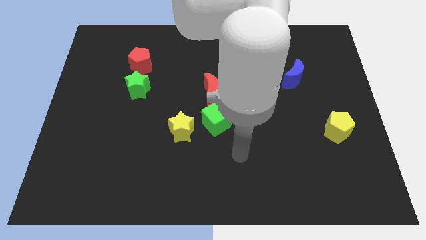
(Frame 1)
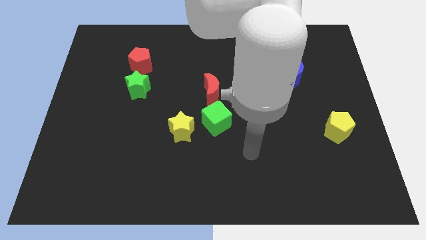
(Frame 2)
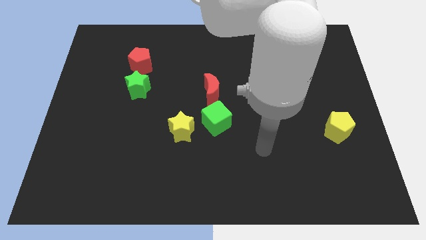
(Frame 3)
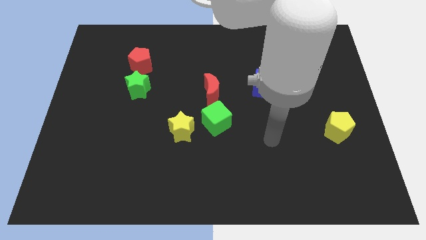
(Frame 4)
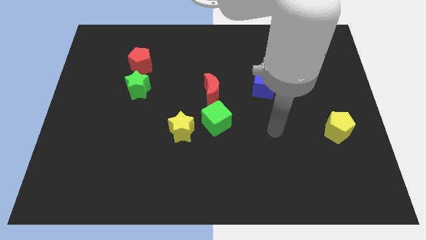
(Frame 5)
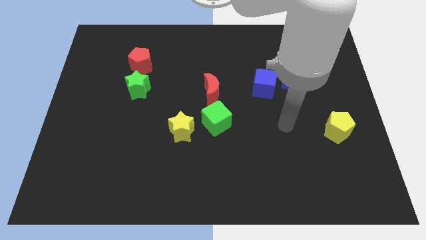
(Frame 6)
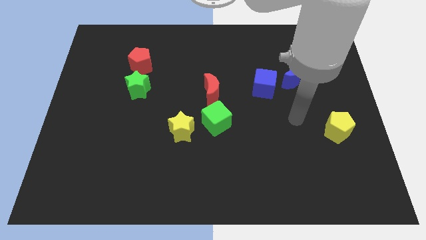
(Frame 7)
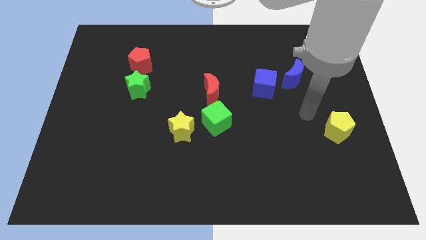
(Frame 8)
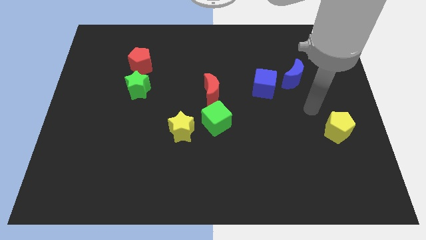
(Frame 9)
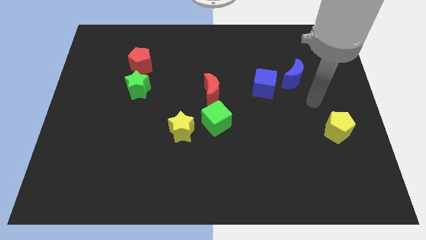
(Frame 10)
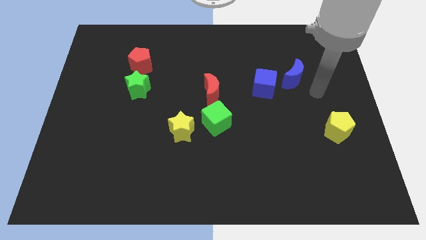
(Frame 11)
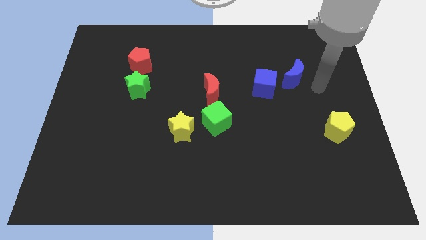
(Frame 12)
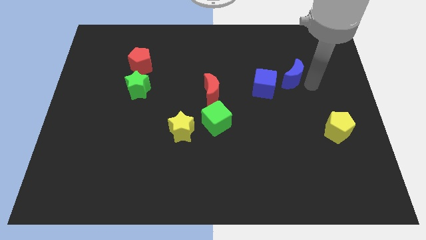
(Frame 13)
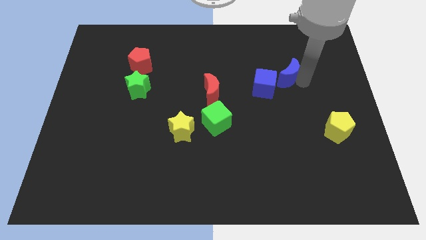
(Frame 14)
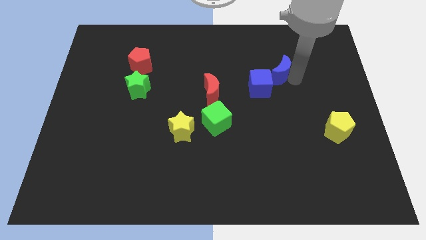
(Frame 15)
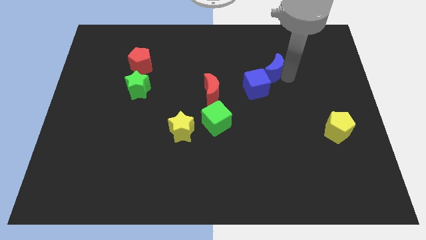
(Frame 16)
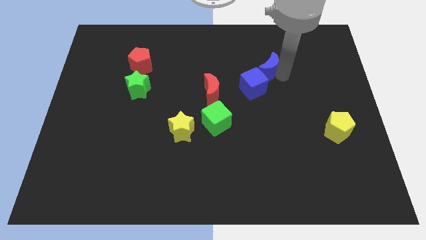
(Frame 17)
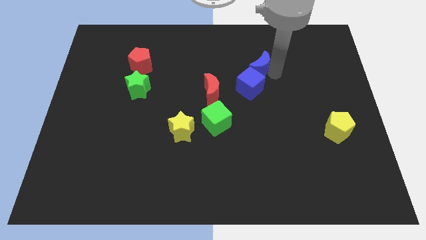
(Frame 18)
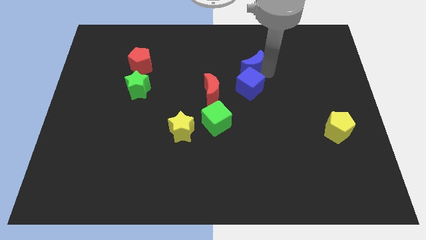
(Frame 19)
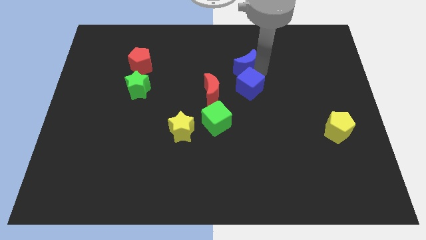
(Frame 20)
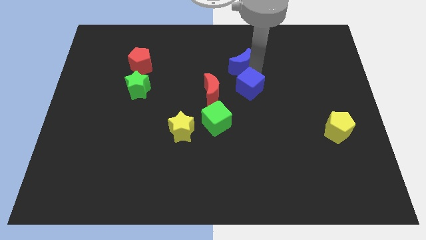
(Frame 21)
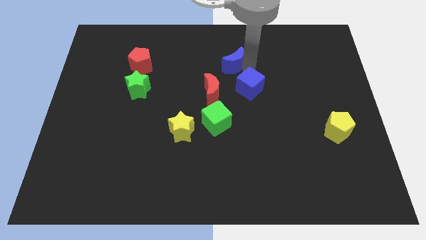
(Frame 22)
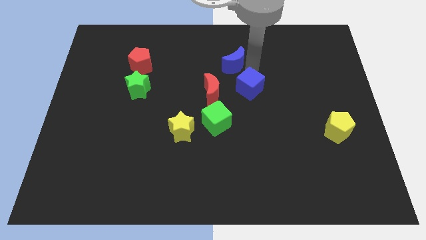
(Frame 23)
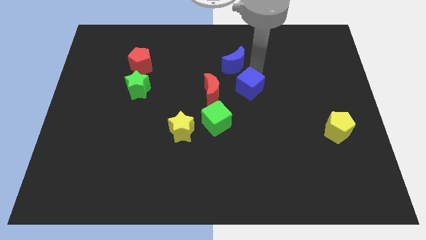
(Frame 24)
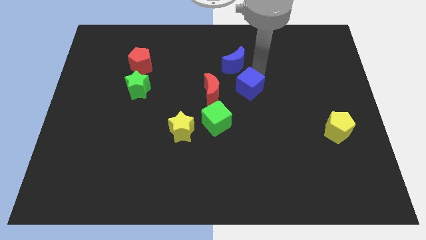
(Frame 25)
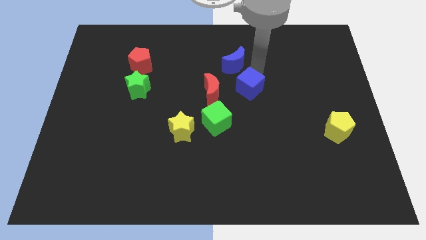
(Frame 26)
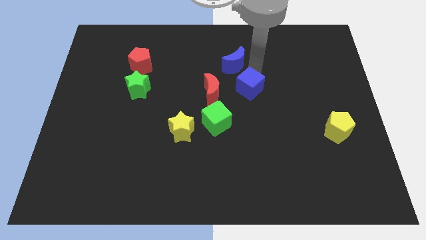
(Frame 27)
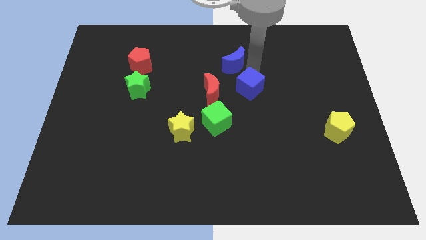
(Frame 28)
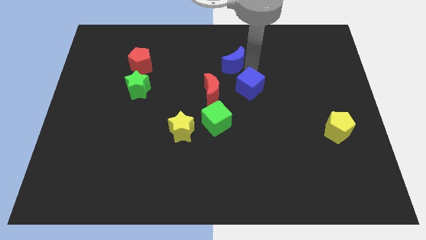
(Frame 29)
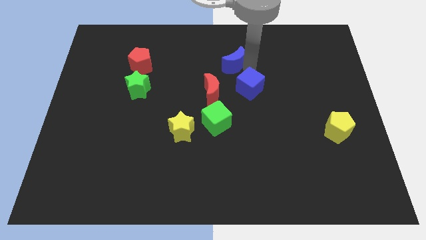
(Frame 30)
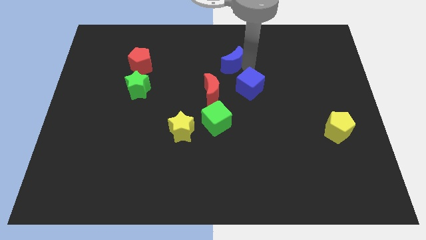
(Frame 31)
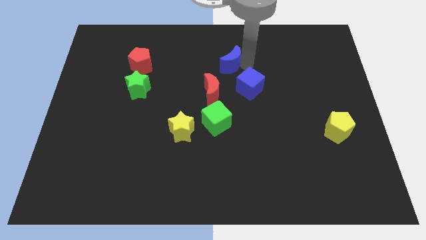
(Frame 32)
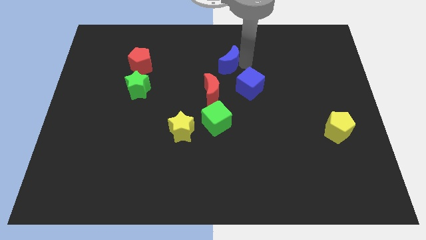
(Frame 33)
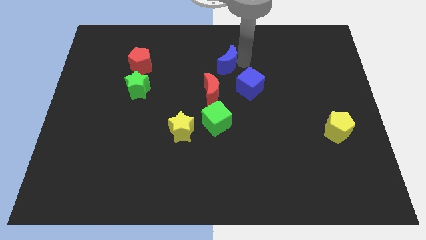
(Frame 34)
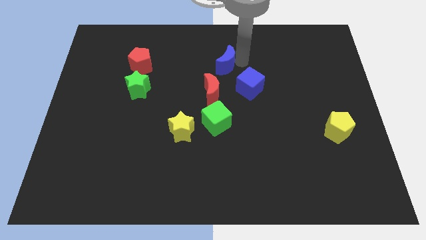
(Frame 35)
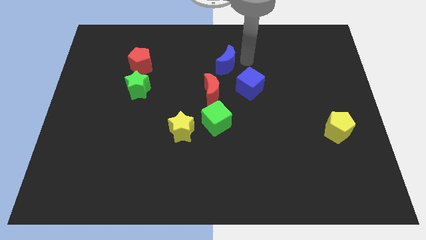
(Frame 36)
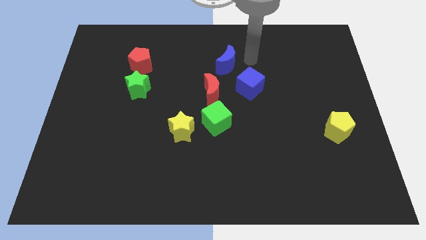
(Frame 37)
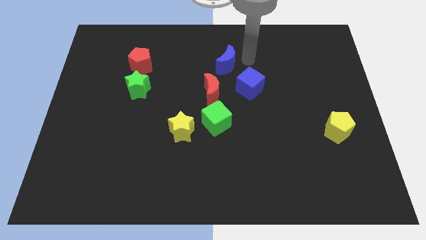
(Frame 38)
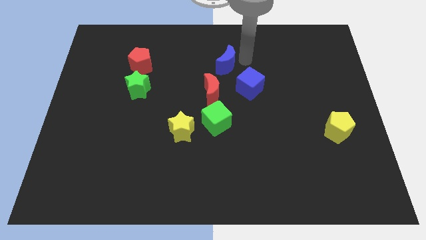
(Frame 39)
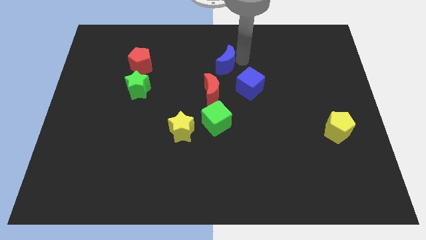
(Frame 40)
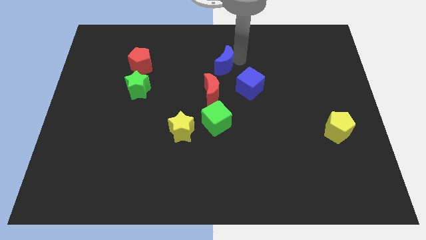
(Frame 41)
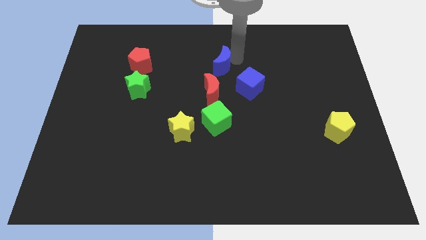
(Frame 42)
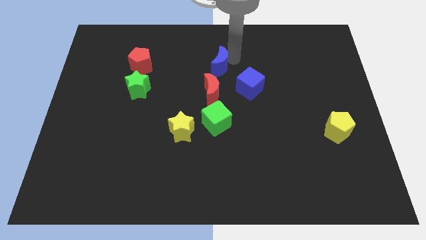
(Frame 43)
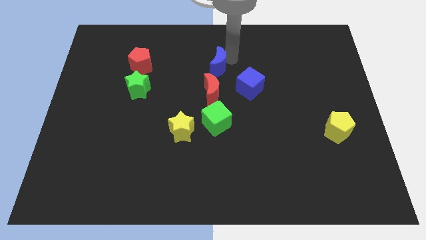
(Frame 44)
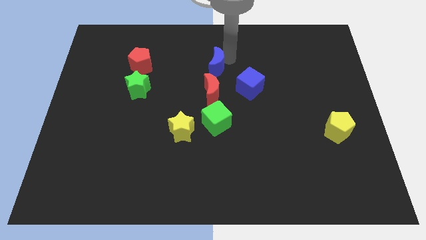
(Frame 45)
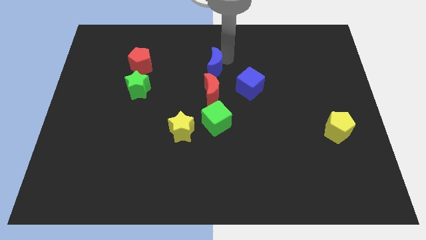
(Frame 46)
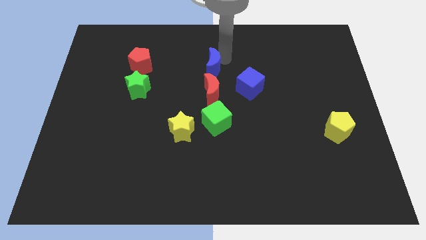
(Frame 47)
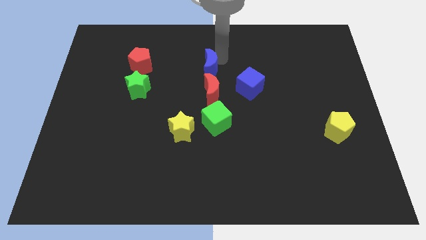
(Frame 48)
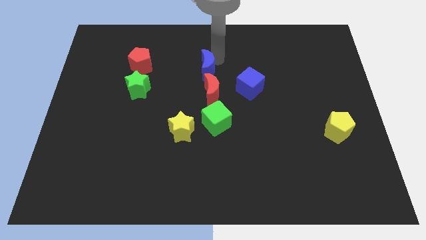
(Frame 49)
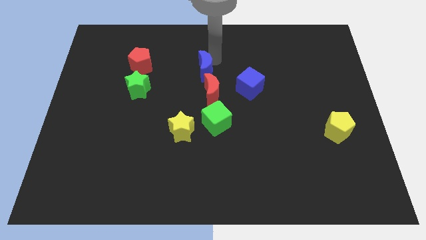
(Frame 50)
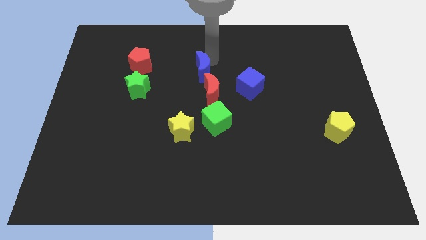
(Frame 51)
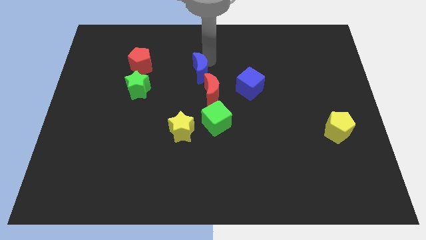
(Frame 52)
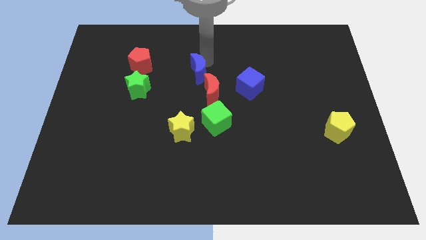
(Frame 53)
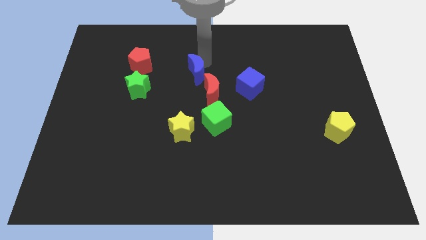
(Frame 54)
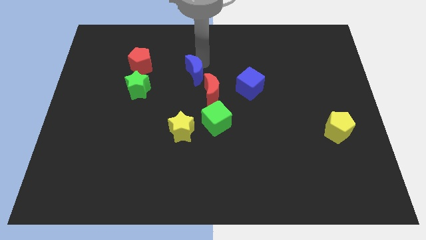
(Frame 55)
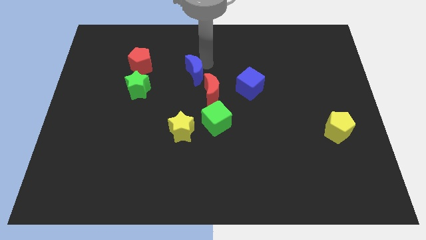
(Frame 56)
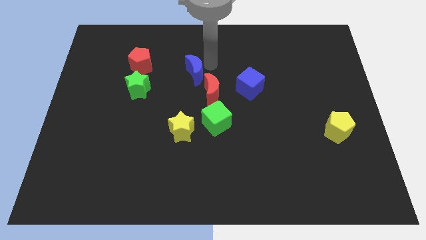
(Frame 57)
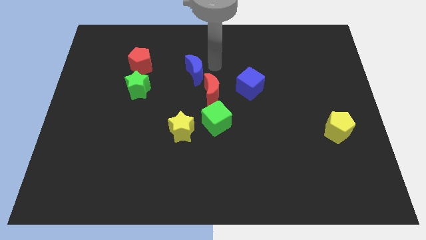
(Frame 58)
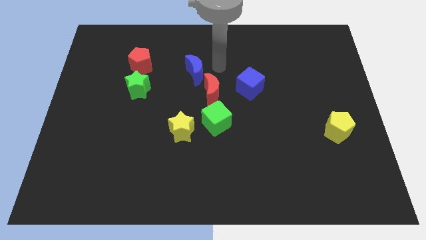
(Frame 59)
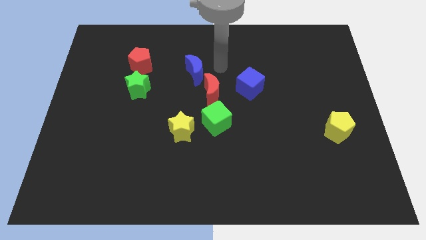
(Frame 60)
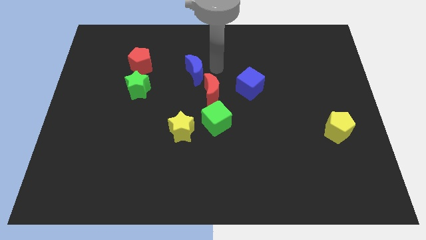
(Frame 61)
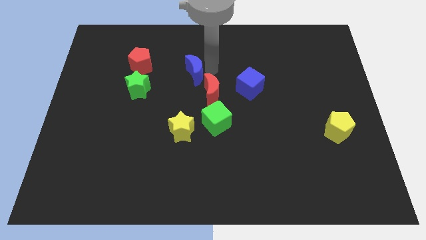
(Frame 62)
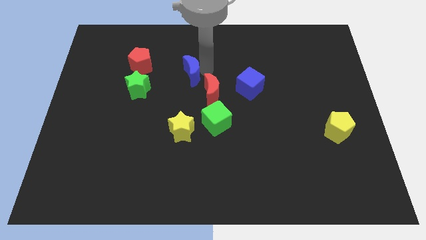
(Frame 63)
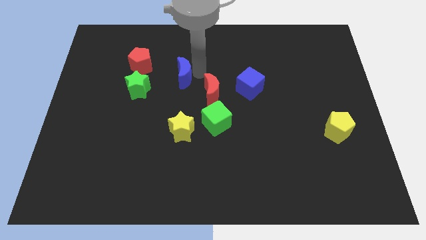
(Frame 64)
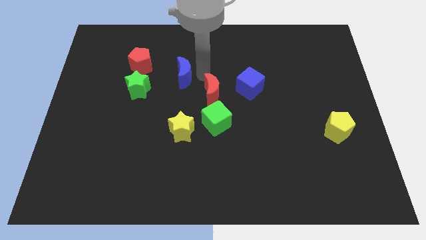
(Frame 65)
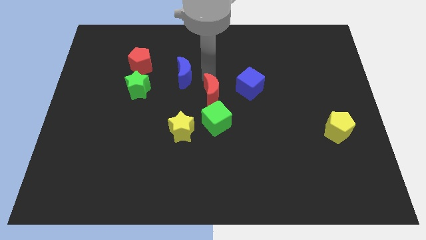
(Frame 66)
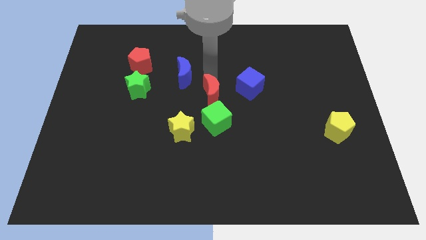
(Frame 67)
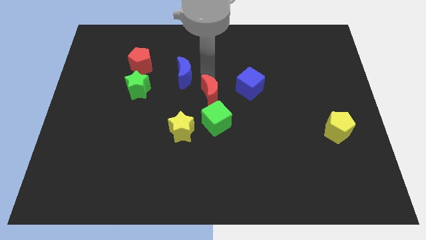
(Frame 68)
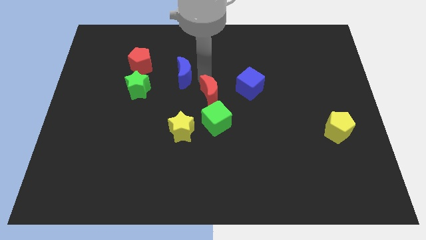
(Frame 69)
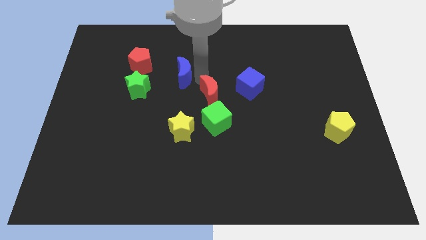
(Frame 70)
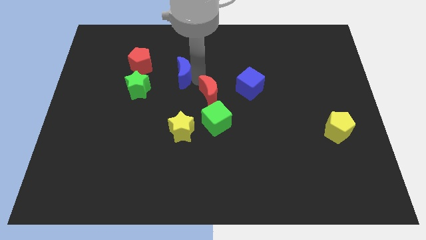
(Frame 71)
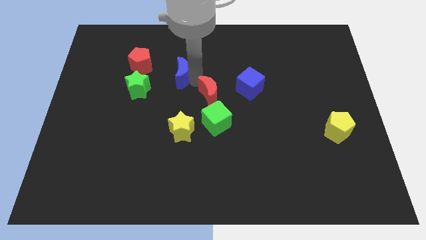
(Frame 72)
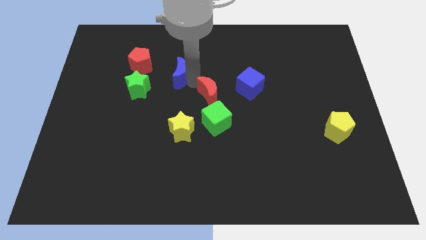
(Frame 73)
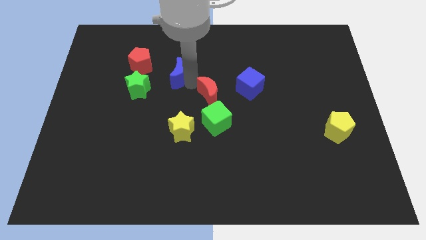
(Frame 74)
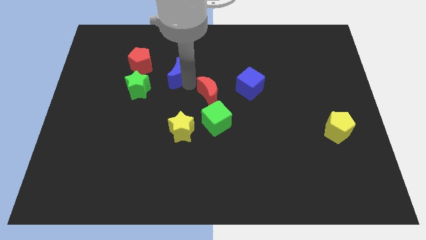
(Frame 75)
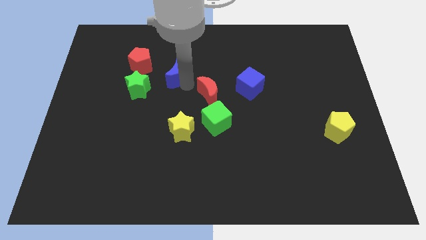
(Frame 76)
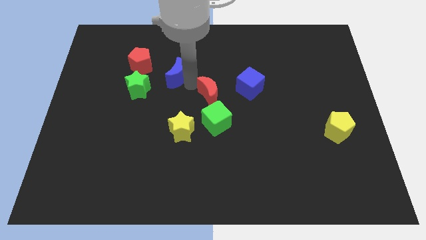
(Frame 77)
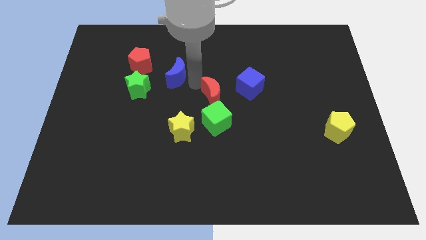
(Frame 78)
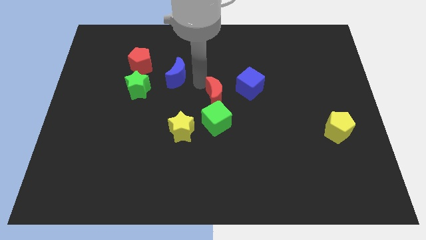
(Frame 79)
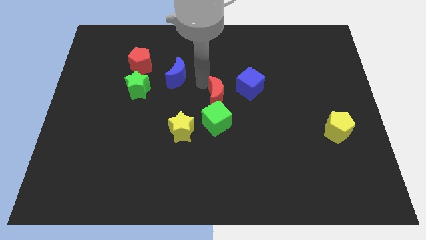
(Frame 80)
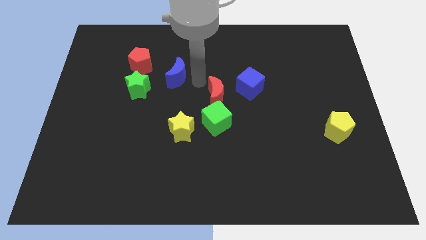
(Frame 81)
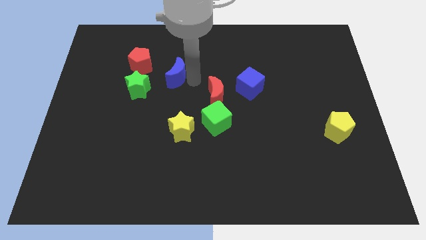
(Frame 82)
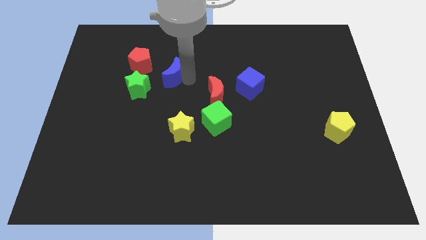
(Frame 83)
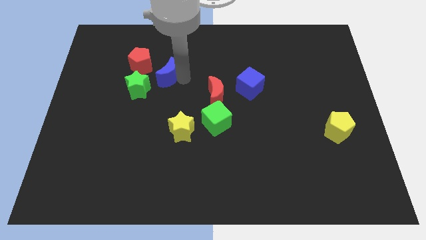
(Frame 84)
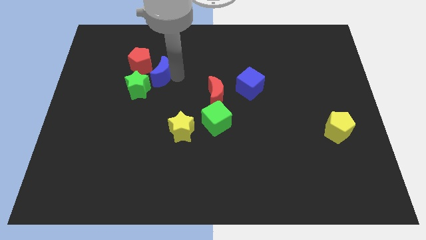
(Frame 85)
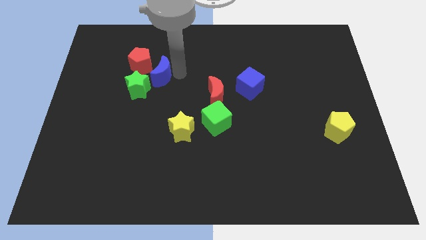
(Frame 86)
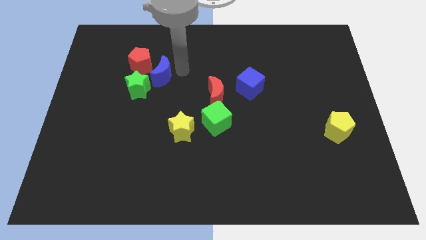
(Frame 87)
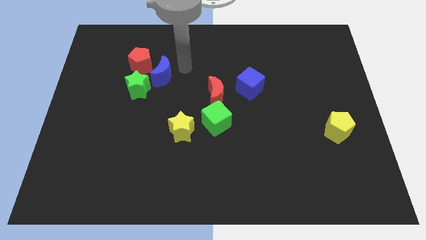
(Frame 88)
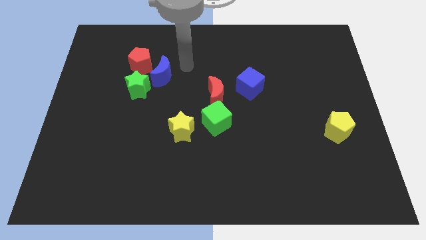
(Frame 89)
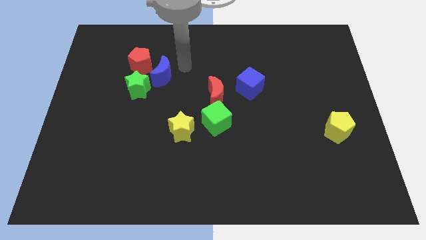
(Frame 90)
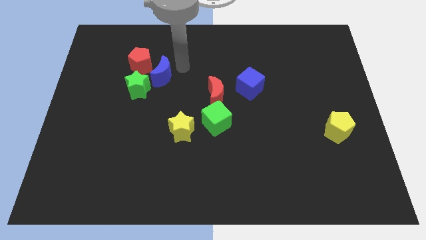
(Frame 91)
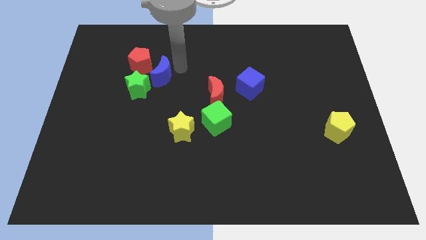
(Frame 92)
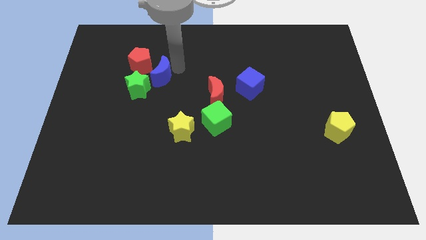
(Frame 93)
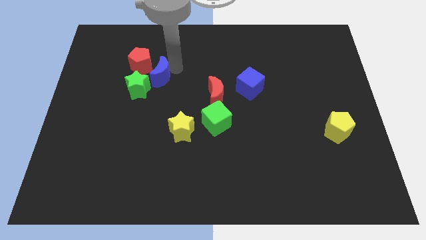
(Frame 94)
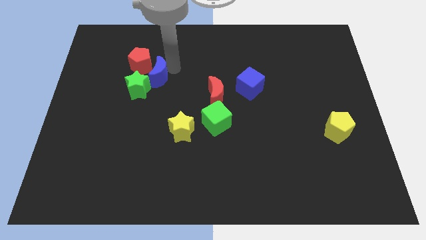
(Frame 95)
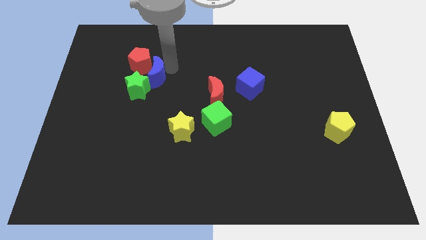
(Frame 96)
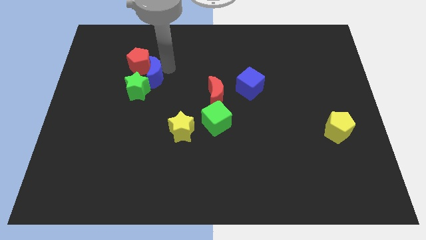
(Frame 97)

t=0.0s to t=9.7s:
push the blue moon towards the green star
